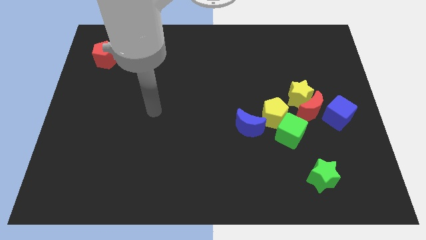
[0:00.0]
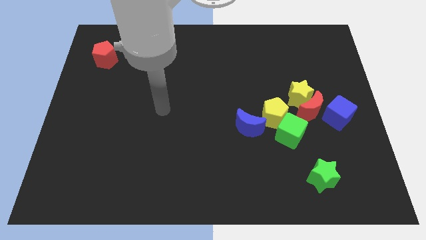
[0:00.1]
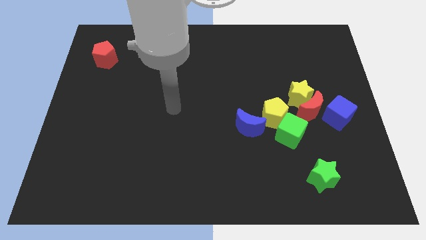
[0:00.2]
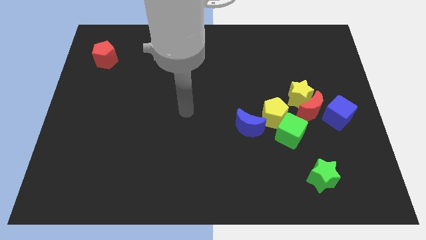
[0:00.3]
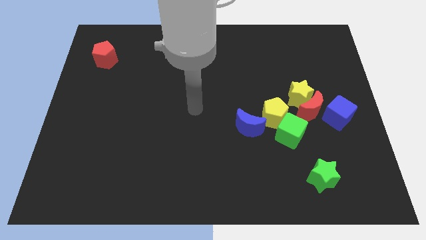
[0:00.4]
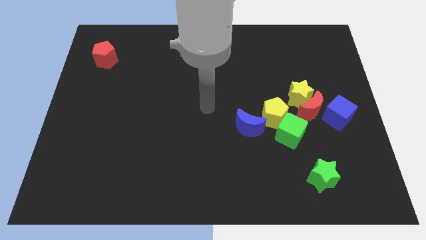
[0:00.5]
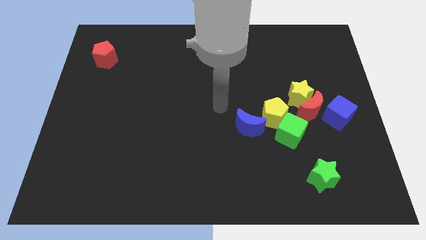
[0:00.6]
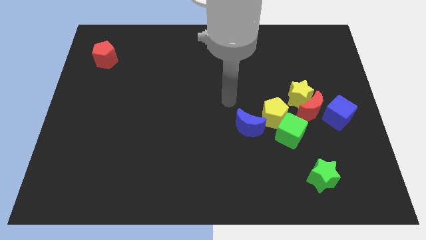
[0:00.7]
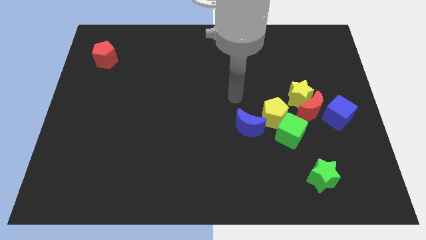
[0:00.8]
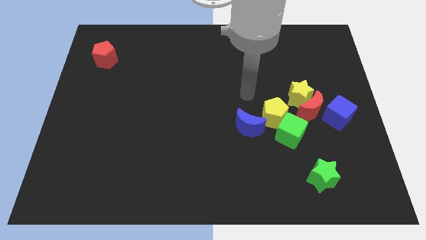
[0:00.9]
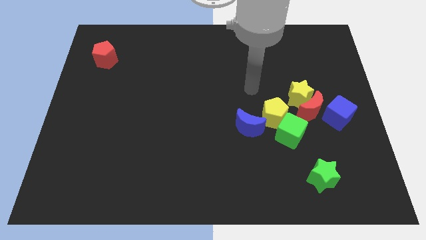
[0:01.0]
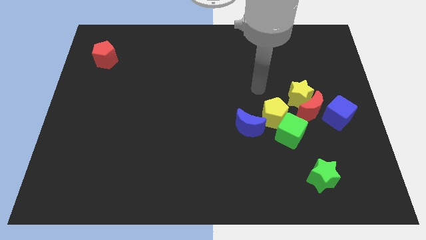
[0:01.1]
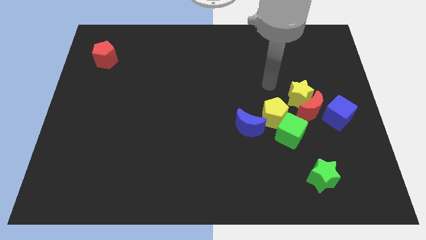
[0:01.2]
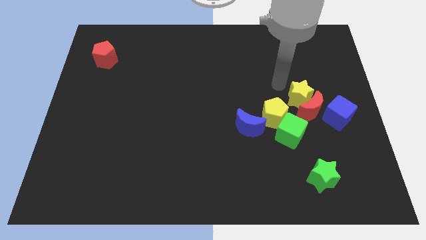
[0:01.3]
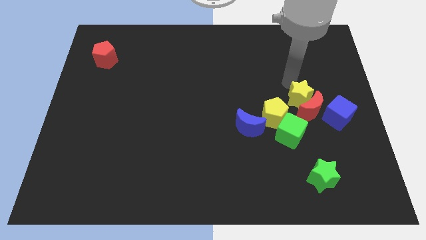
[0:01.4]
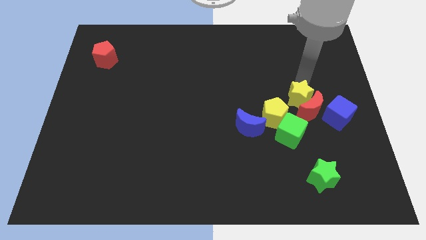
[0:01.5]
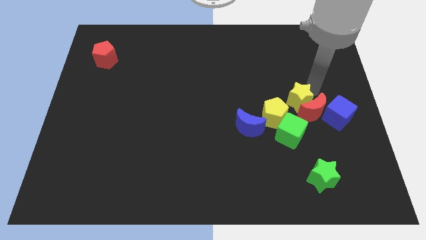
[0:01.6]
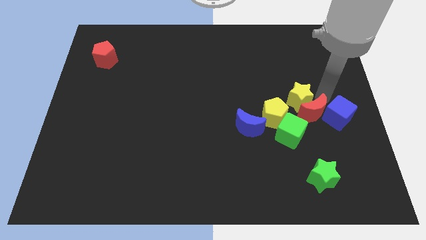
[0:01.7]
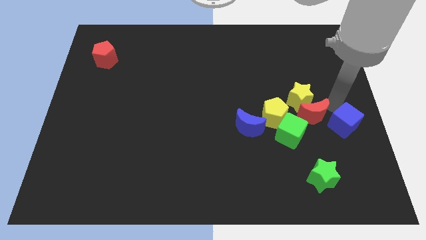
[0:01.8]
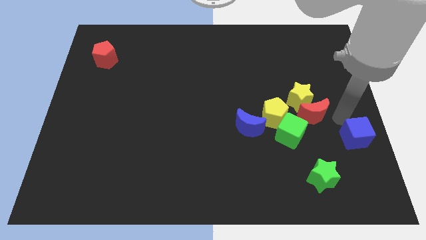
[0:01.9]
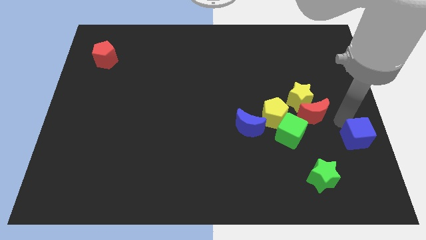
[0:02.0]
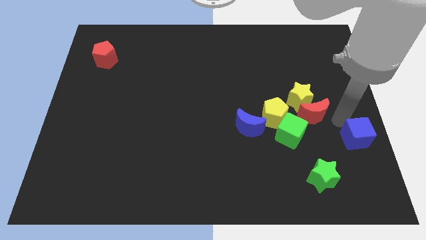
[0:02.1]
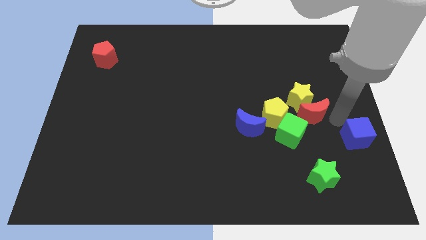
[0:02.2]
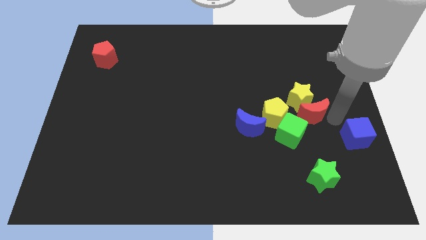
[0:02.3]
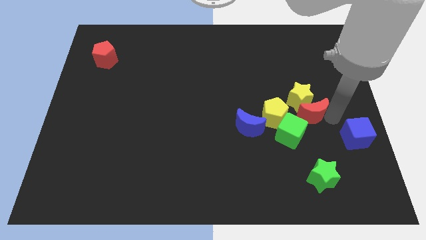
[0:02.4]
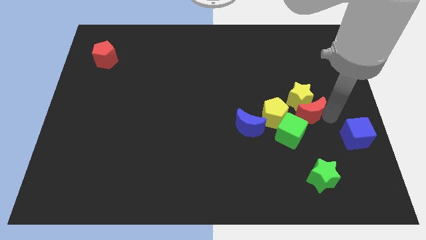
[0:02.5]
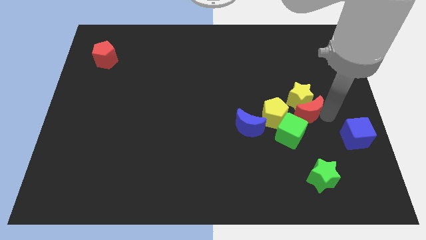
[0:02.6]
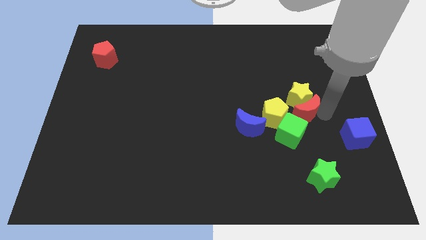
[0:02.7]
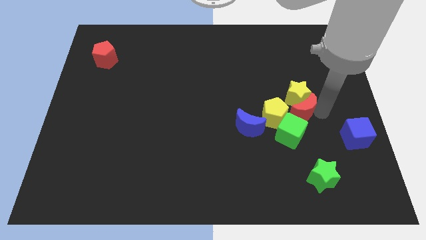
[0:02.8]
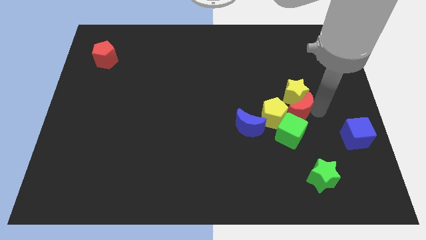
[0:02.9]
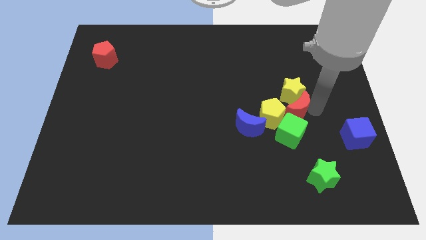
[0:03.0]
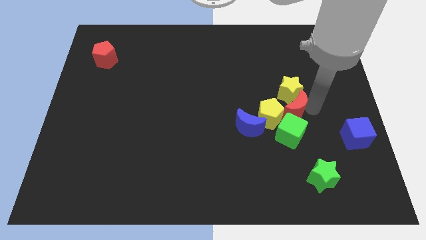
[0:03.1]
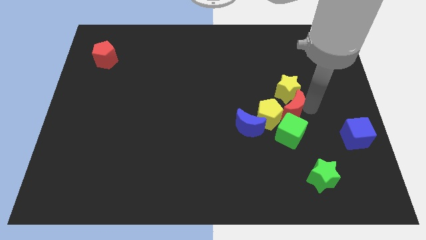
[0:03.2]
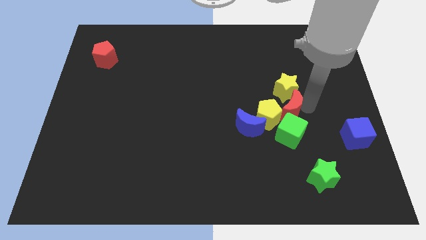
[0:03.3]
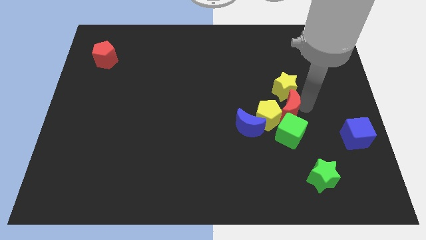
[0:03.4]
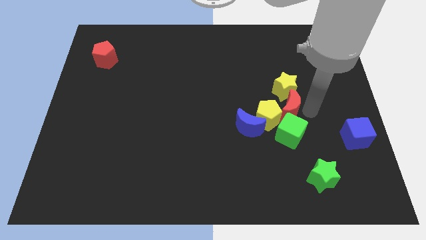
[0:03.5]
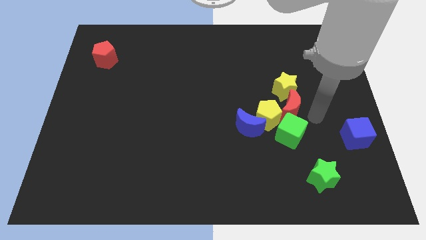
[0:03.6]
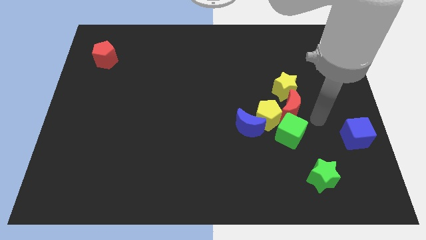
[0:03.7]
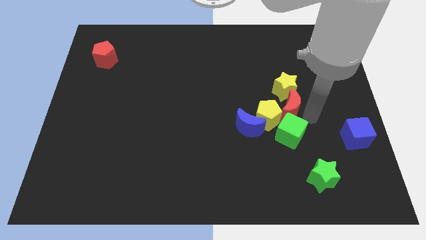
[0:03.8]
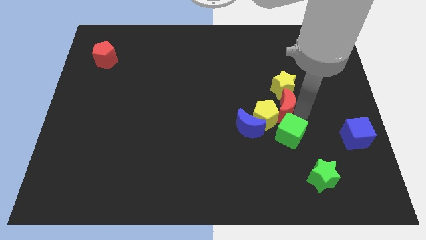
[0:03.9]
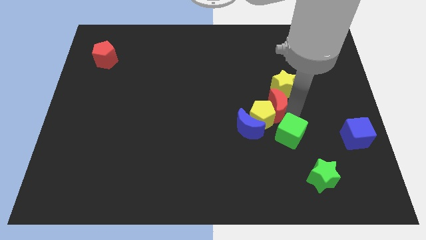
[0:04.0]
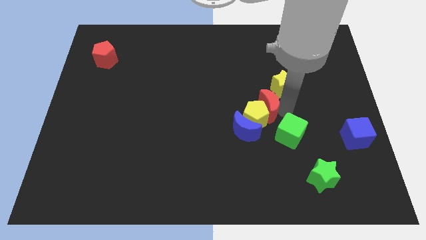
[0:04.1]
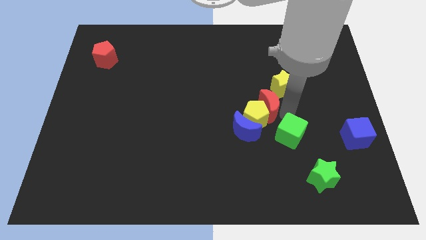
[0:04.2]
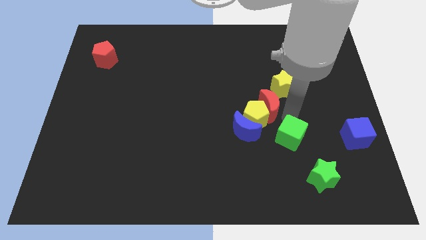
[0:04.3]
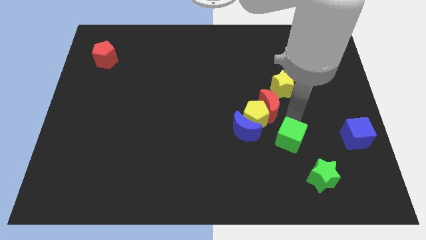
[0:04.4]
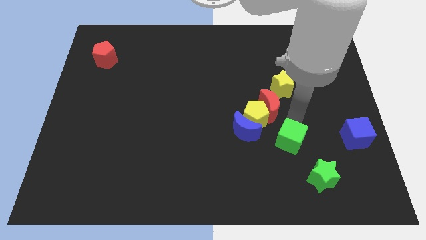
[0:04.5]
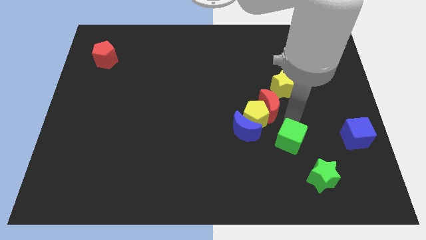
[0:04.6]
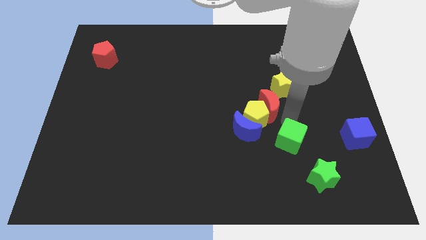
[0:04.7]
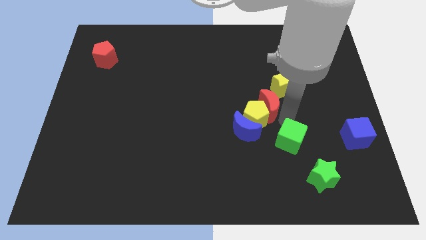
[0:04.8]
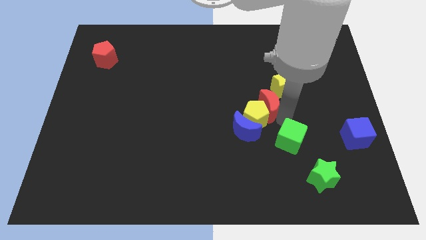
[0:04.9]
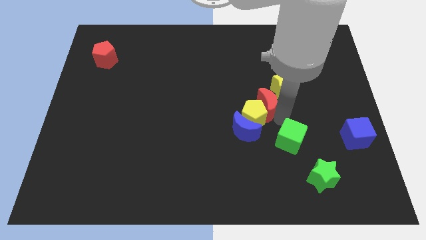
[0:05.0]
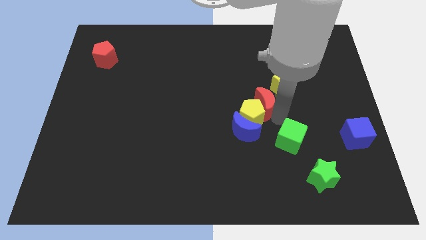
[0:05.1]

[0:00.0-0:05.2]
push the red moon to the middle

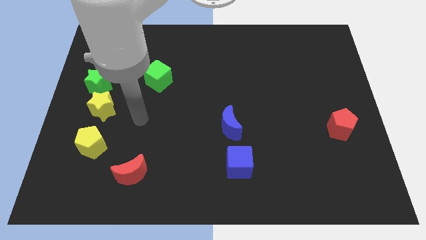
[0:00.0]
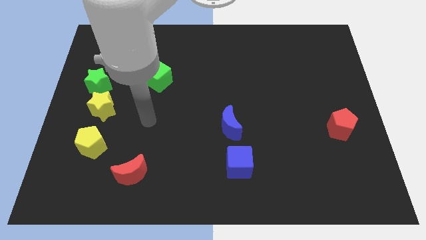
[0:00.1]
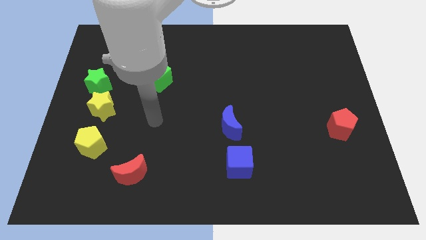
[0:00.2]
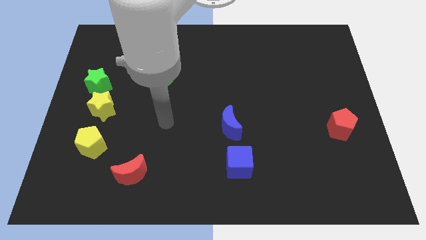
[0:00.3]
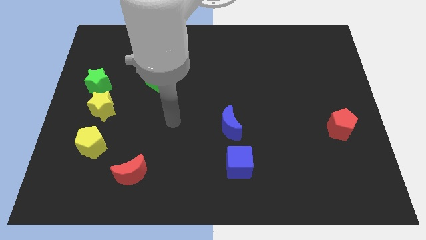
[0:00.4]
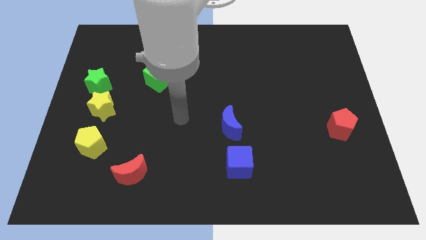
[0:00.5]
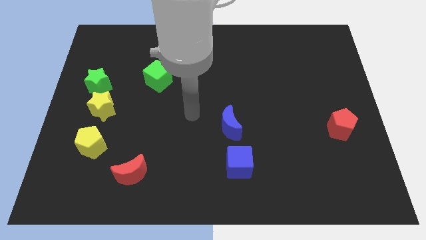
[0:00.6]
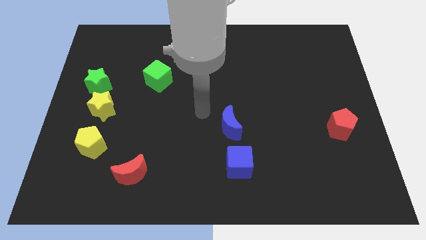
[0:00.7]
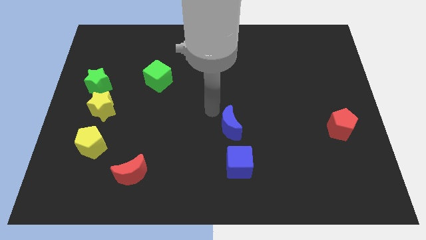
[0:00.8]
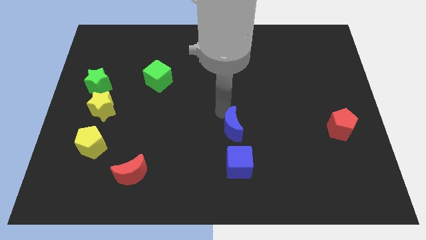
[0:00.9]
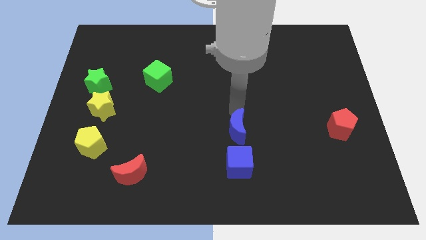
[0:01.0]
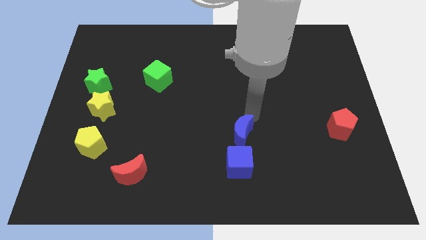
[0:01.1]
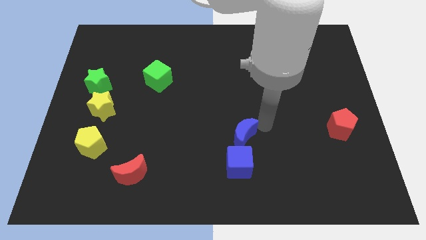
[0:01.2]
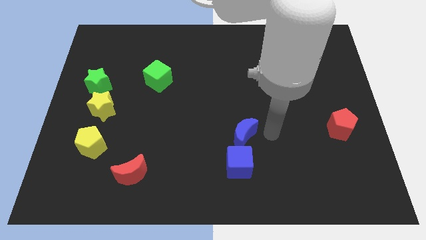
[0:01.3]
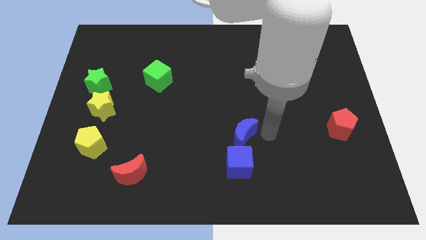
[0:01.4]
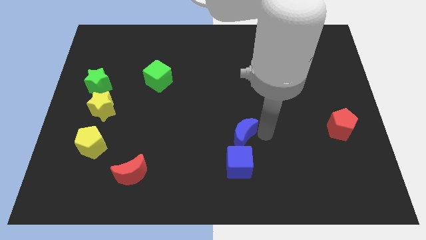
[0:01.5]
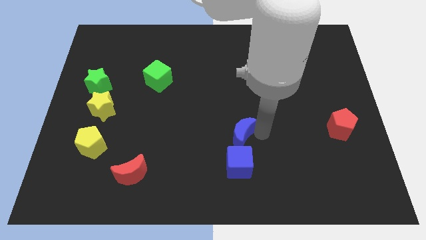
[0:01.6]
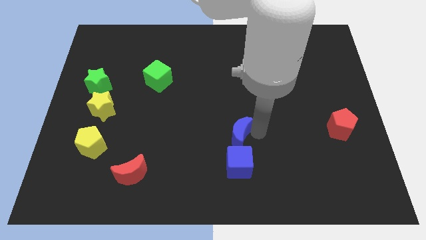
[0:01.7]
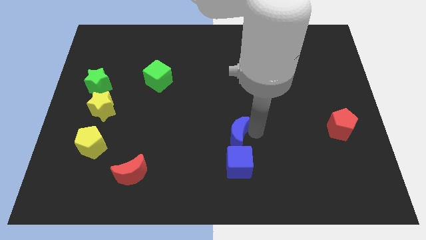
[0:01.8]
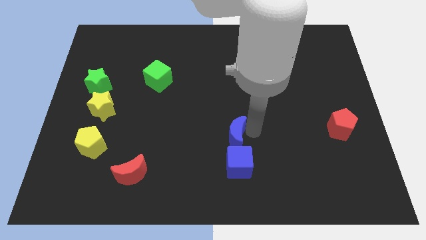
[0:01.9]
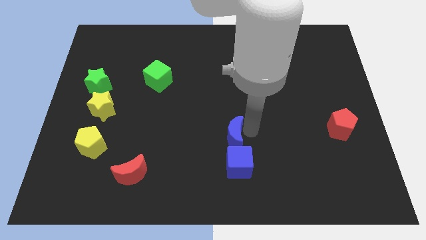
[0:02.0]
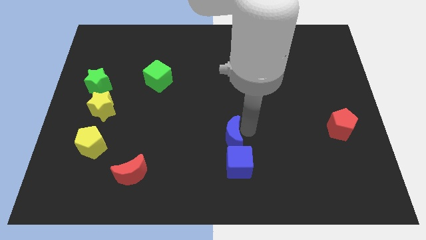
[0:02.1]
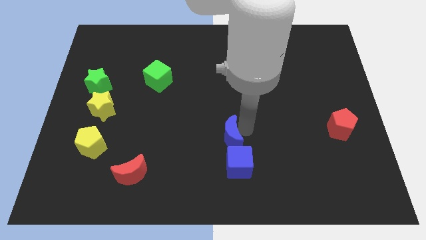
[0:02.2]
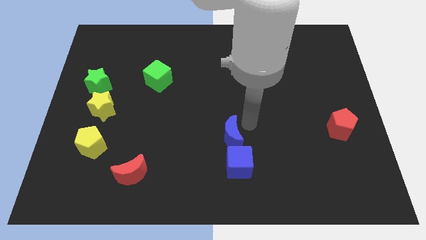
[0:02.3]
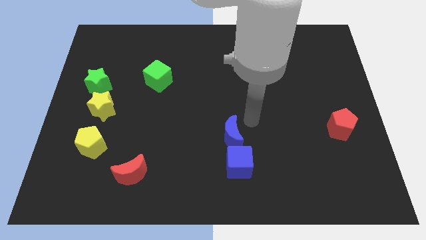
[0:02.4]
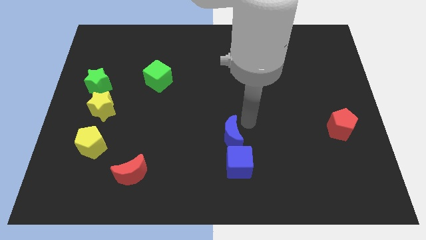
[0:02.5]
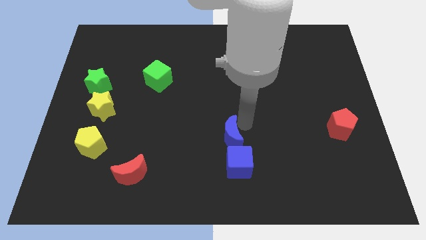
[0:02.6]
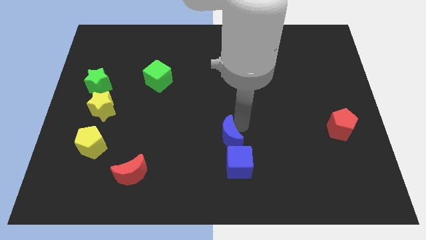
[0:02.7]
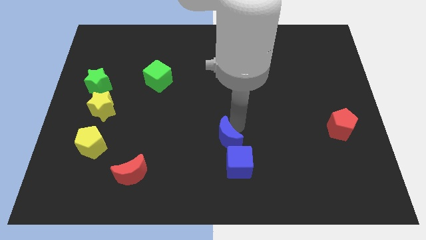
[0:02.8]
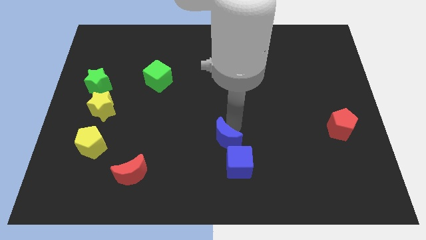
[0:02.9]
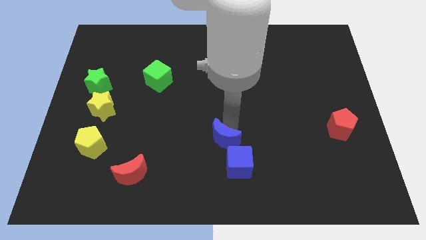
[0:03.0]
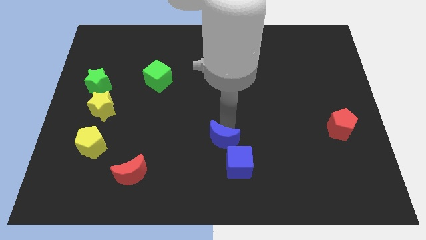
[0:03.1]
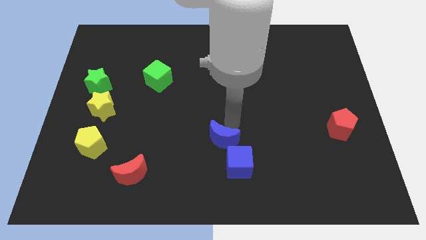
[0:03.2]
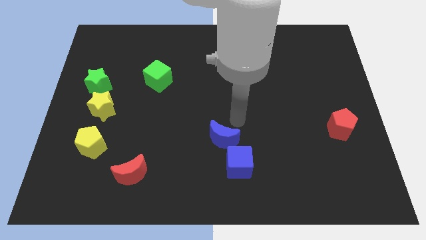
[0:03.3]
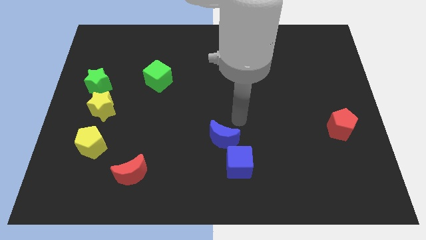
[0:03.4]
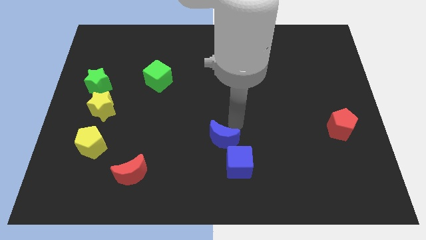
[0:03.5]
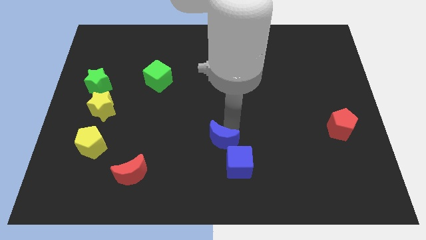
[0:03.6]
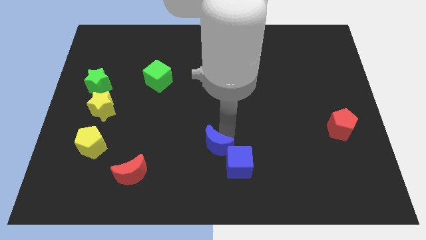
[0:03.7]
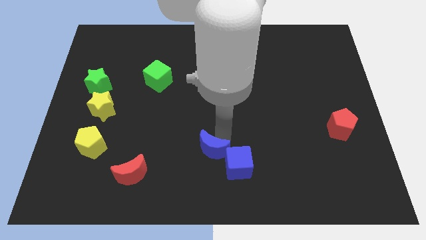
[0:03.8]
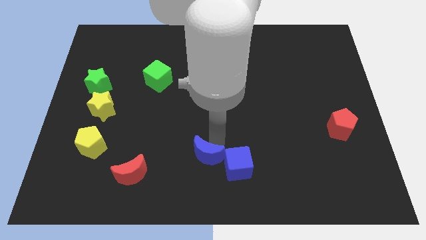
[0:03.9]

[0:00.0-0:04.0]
put the blue moon to the bottom
